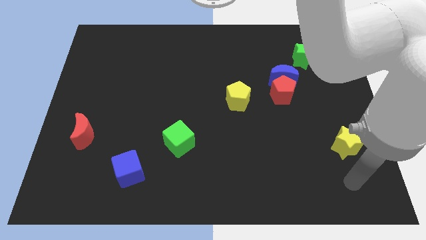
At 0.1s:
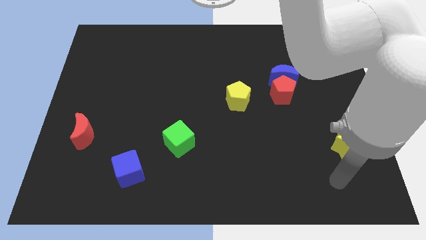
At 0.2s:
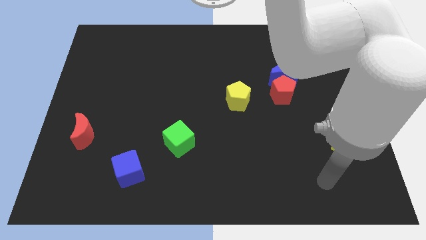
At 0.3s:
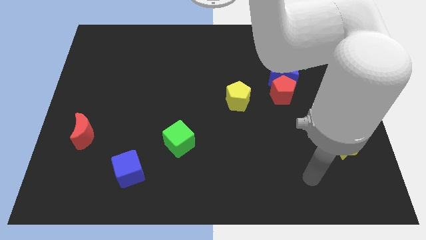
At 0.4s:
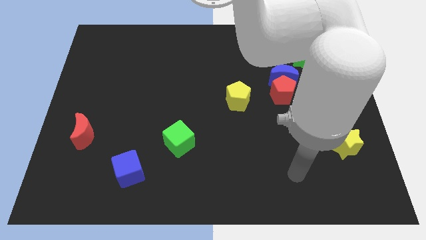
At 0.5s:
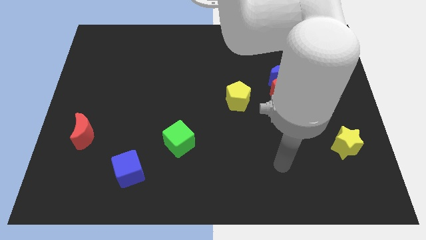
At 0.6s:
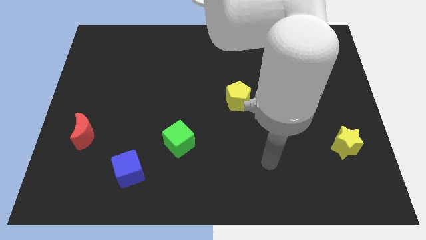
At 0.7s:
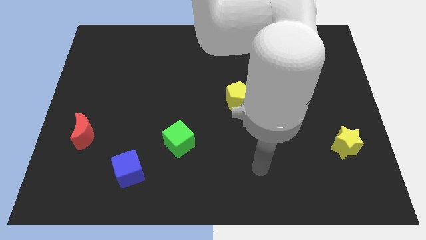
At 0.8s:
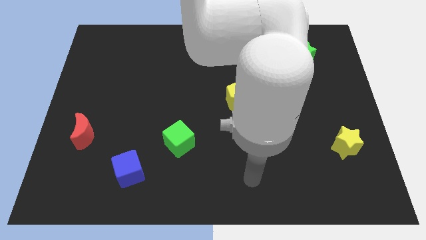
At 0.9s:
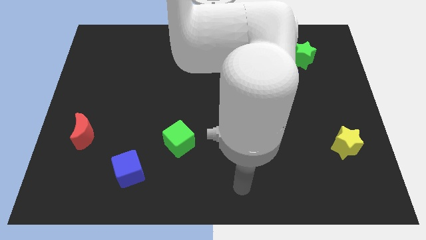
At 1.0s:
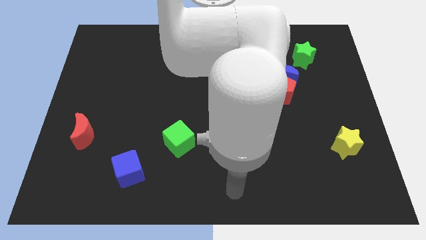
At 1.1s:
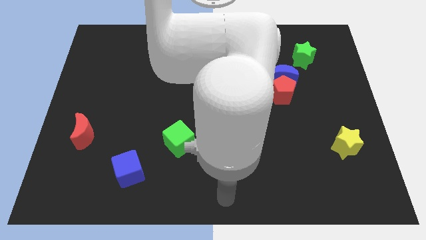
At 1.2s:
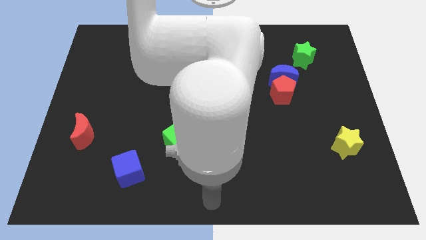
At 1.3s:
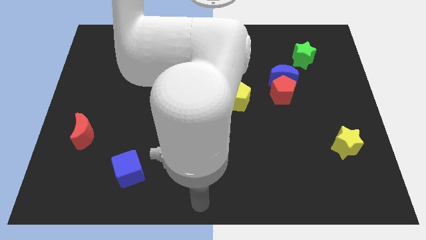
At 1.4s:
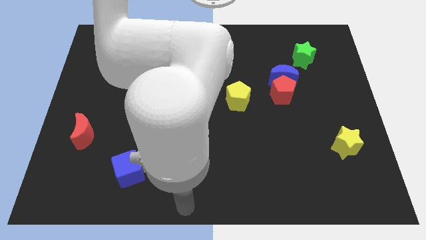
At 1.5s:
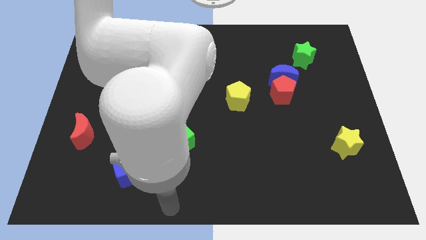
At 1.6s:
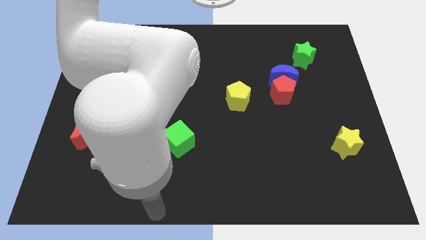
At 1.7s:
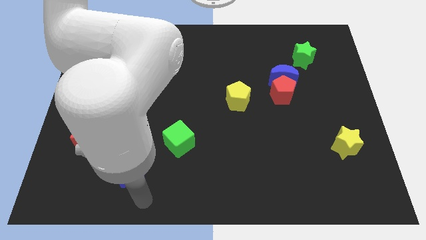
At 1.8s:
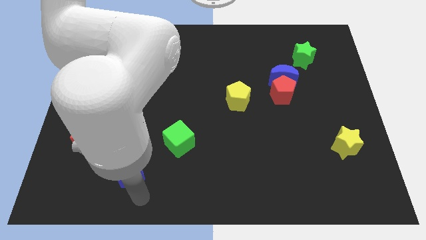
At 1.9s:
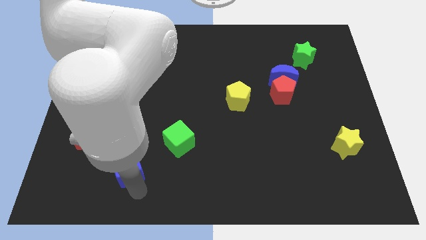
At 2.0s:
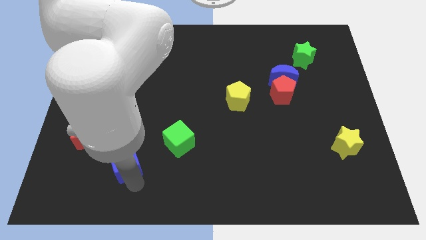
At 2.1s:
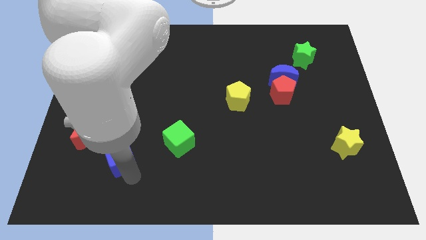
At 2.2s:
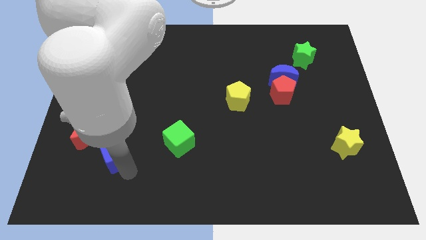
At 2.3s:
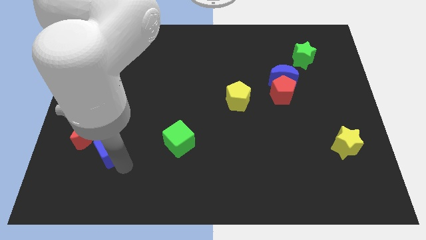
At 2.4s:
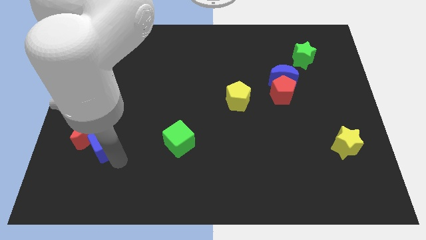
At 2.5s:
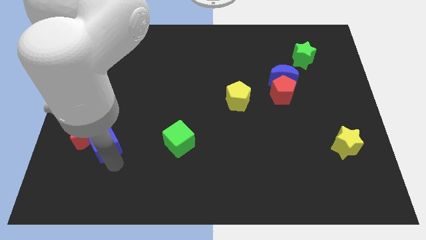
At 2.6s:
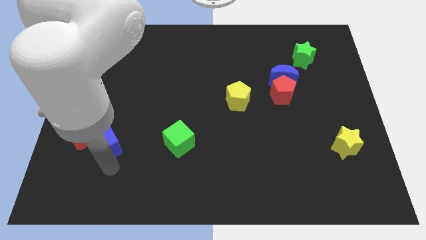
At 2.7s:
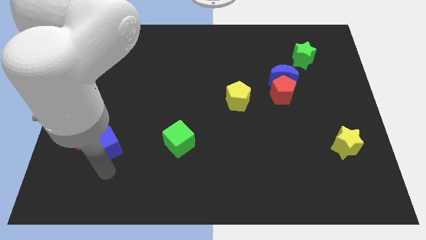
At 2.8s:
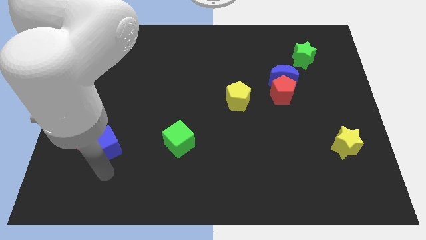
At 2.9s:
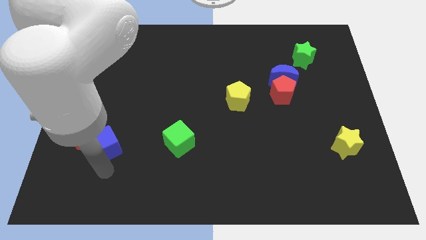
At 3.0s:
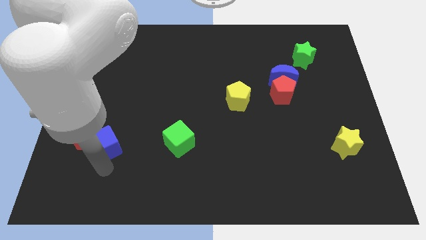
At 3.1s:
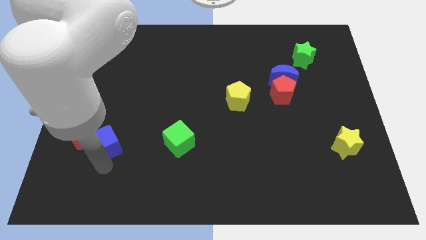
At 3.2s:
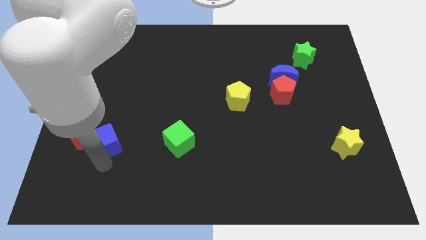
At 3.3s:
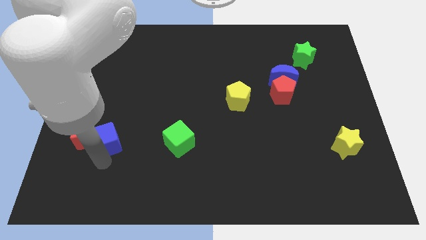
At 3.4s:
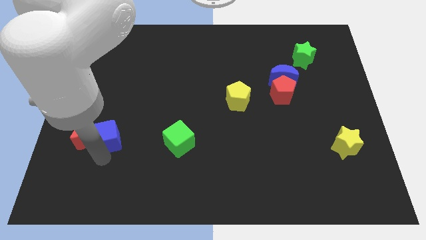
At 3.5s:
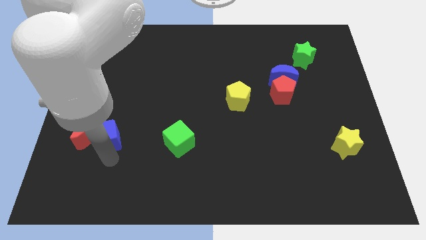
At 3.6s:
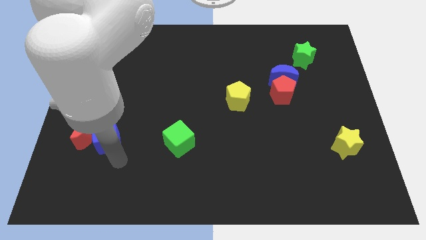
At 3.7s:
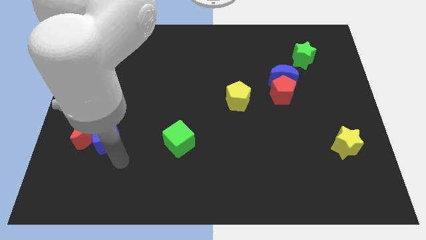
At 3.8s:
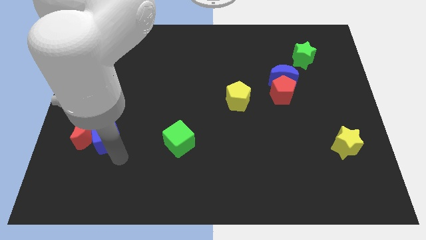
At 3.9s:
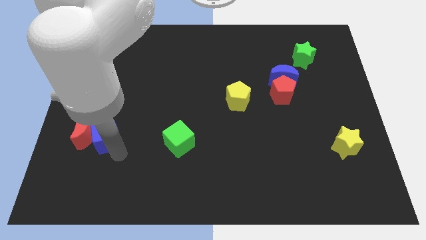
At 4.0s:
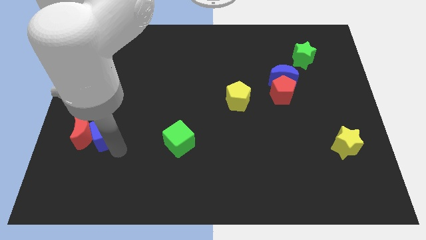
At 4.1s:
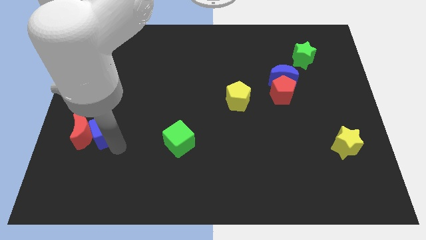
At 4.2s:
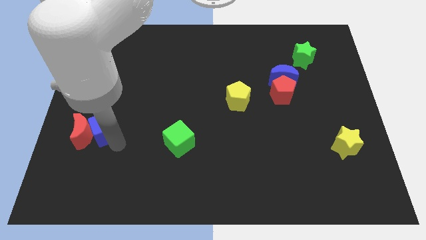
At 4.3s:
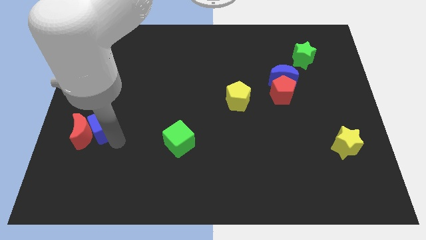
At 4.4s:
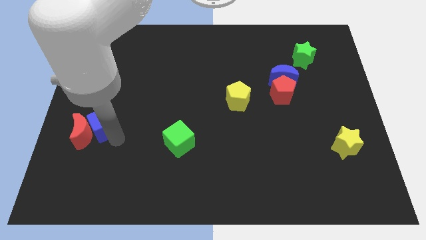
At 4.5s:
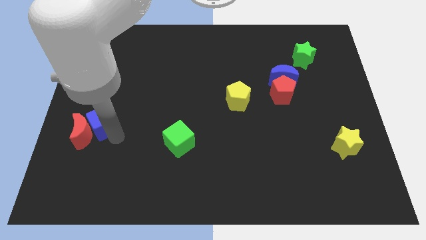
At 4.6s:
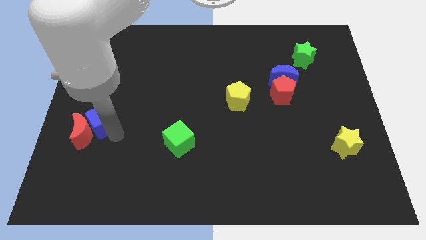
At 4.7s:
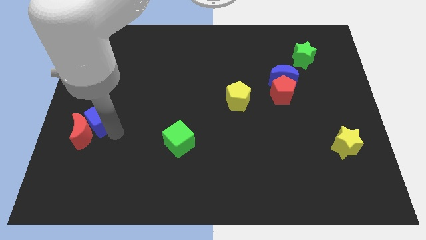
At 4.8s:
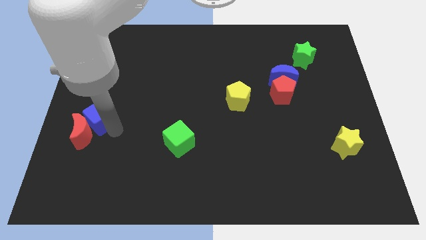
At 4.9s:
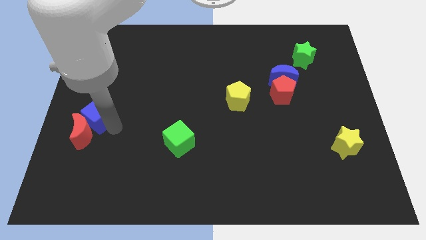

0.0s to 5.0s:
push the blue cube to the center left

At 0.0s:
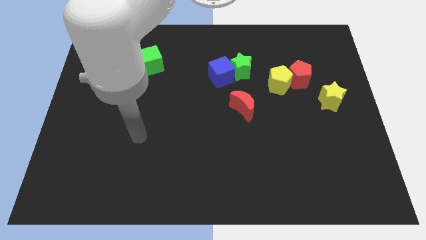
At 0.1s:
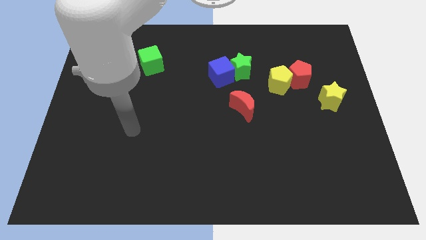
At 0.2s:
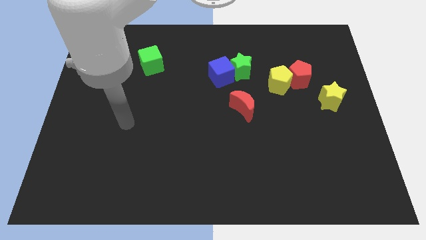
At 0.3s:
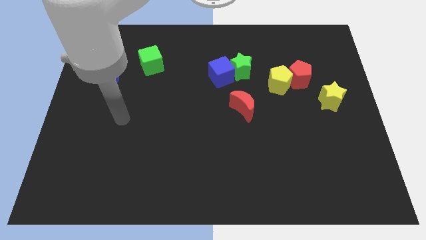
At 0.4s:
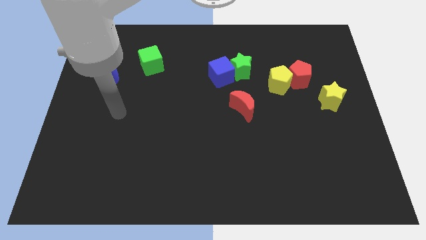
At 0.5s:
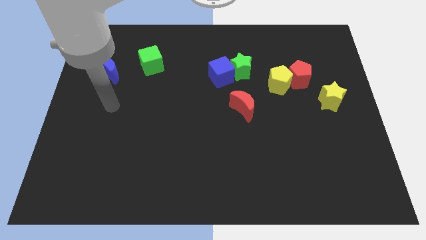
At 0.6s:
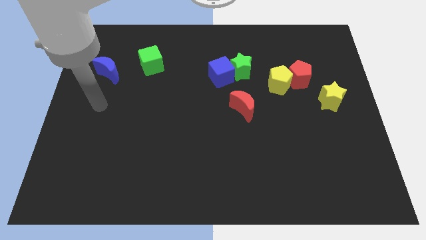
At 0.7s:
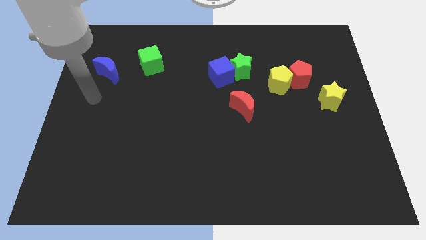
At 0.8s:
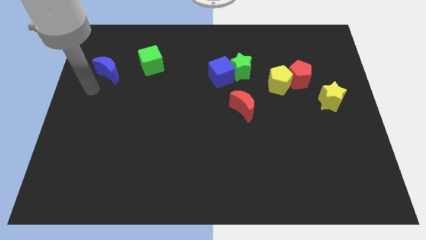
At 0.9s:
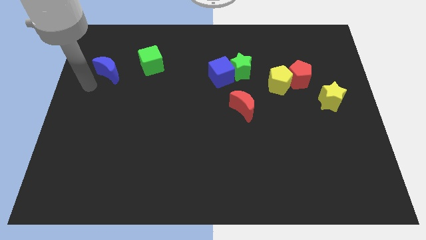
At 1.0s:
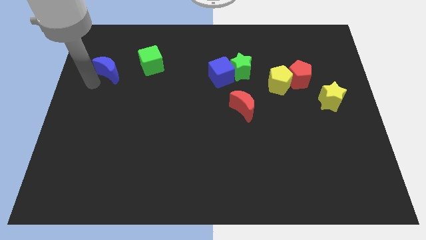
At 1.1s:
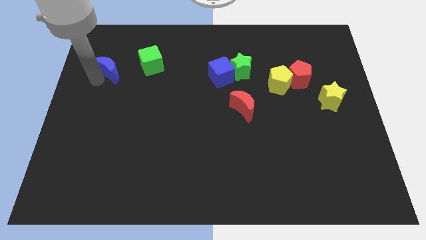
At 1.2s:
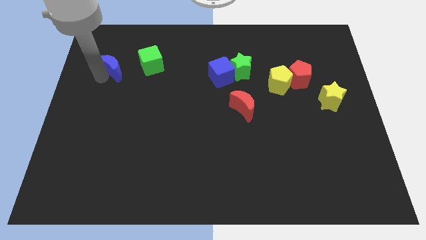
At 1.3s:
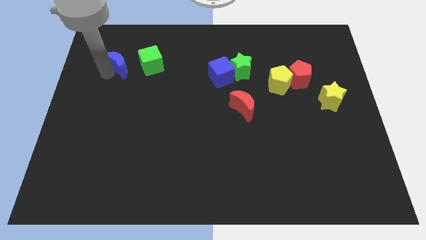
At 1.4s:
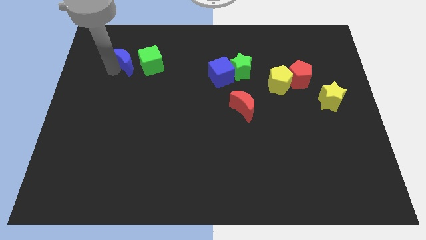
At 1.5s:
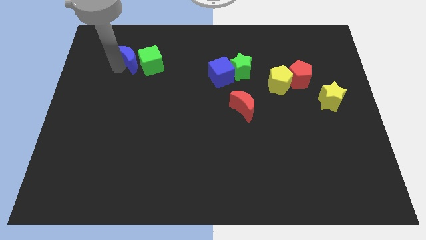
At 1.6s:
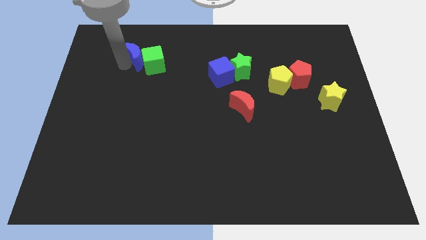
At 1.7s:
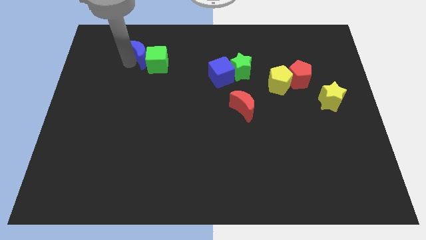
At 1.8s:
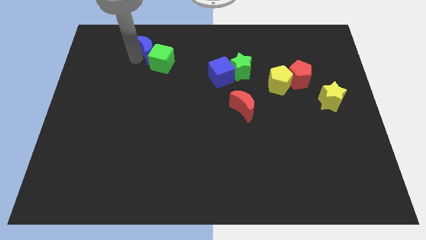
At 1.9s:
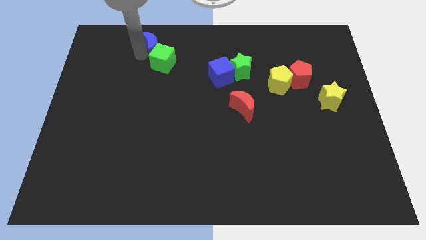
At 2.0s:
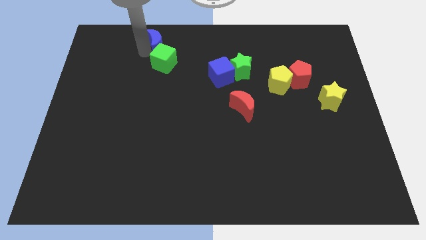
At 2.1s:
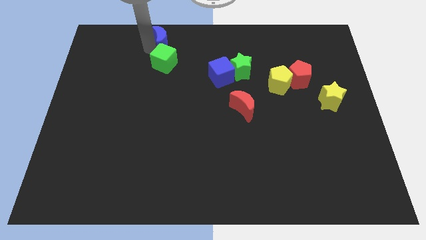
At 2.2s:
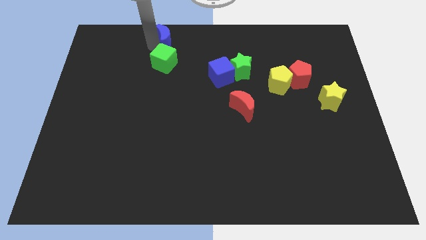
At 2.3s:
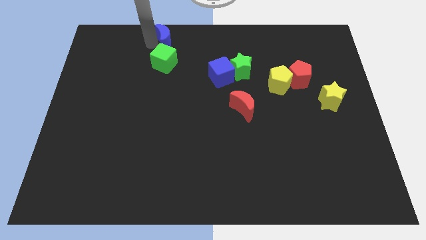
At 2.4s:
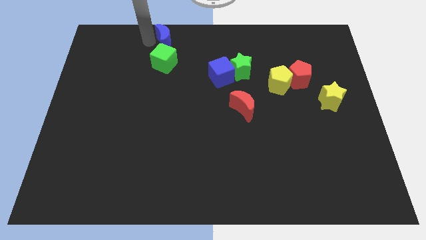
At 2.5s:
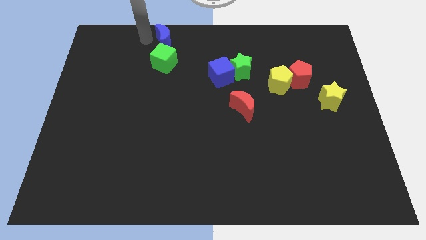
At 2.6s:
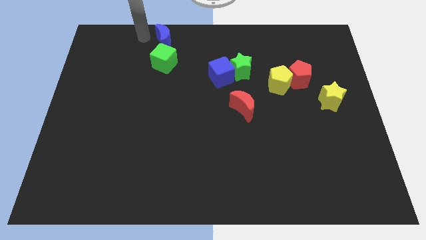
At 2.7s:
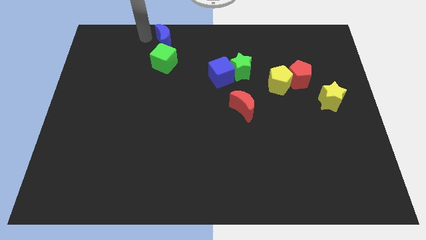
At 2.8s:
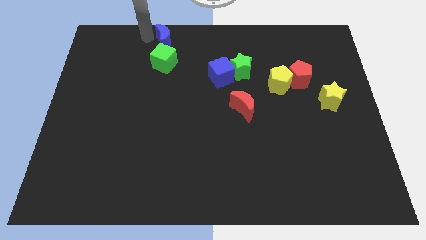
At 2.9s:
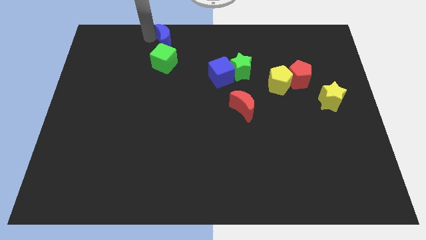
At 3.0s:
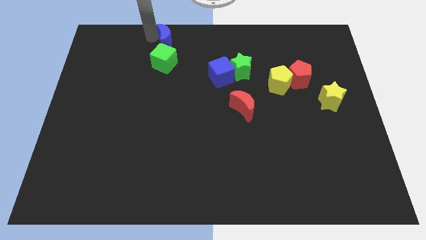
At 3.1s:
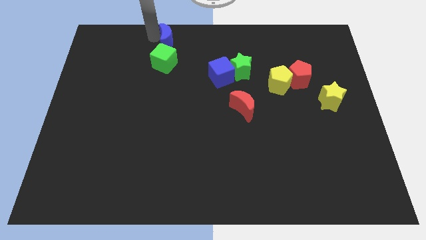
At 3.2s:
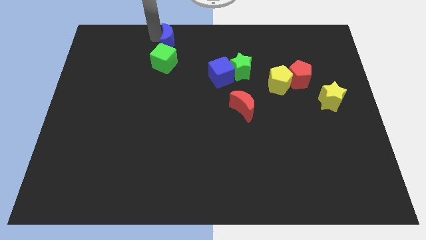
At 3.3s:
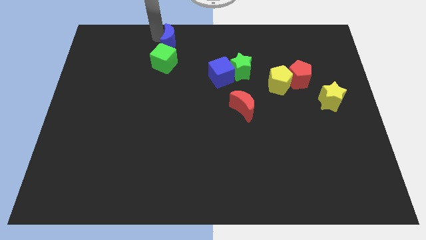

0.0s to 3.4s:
slide the blue moon to the top side
